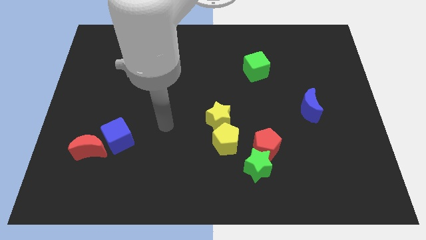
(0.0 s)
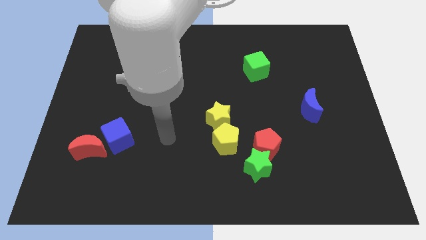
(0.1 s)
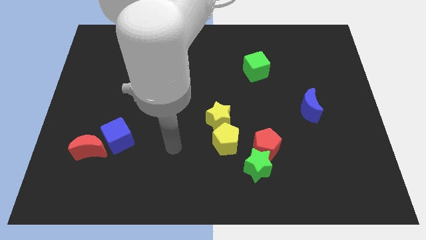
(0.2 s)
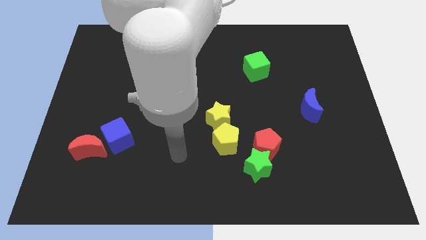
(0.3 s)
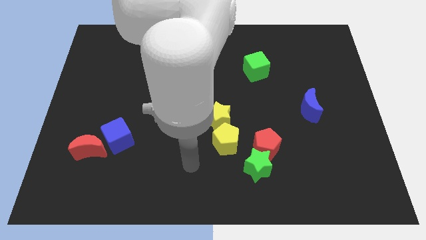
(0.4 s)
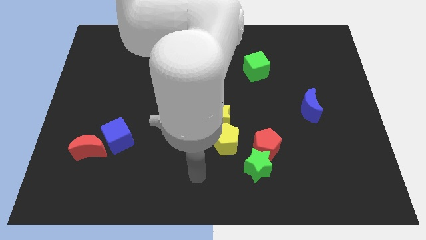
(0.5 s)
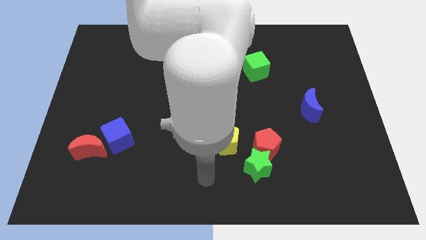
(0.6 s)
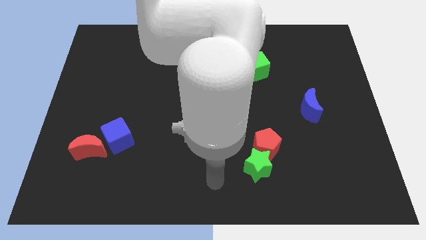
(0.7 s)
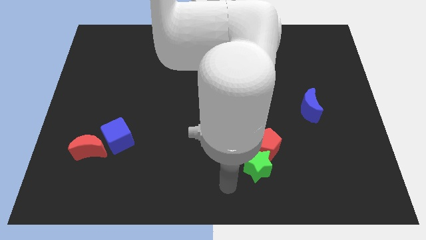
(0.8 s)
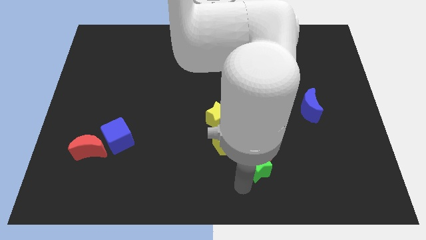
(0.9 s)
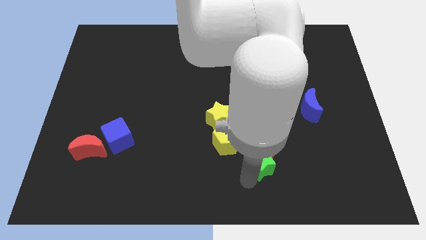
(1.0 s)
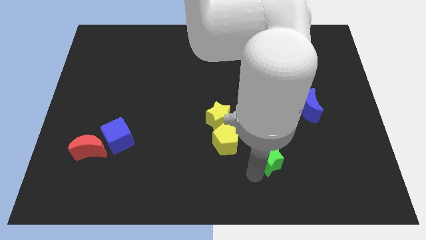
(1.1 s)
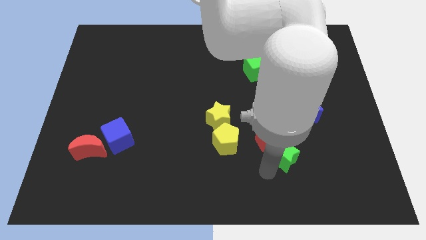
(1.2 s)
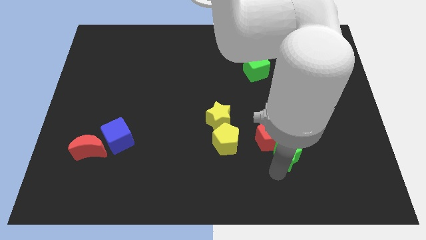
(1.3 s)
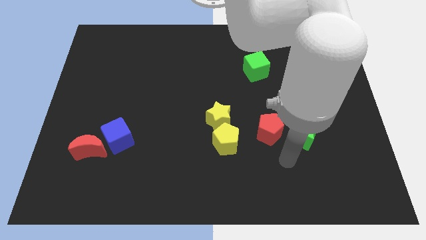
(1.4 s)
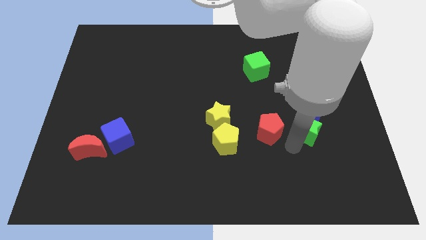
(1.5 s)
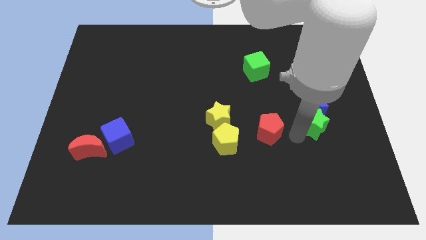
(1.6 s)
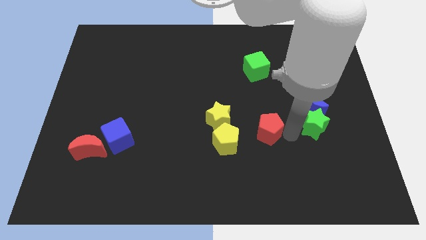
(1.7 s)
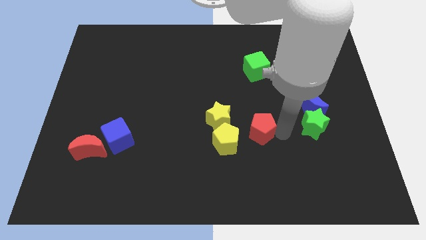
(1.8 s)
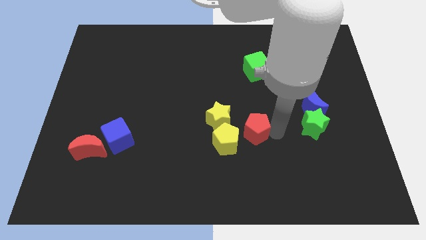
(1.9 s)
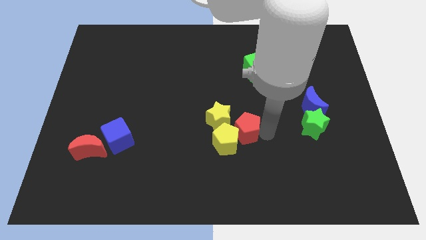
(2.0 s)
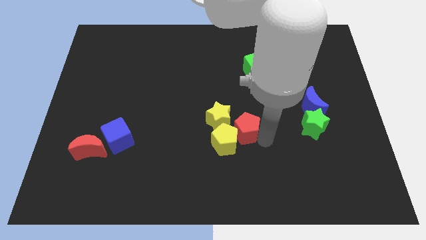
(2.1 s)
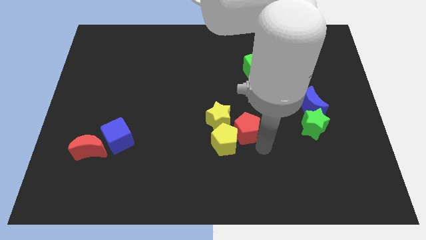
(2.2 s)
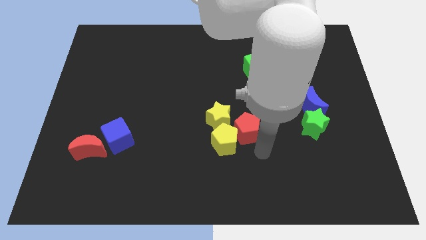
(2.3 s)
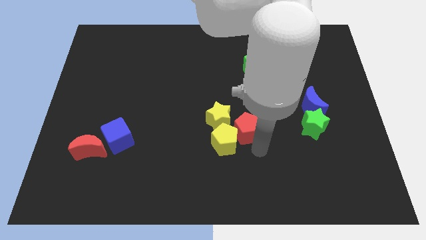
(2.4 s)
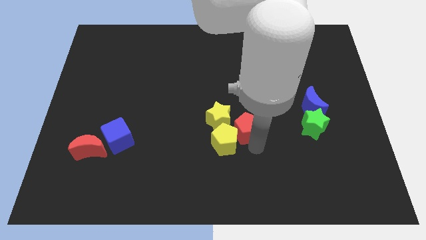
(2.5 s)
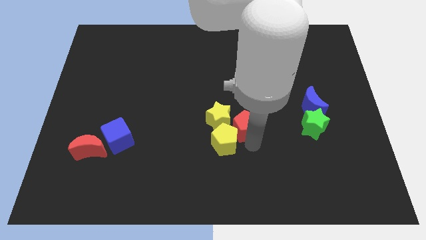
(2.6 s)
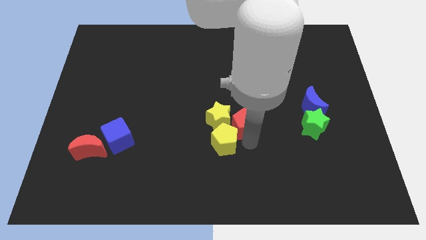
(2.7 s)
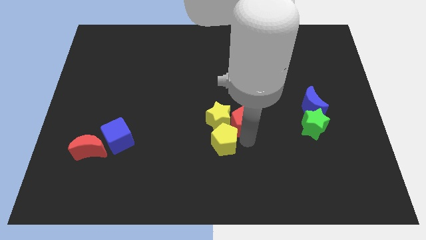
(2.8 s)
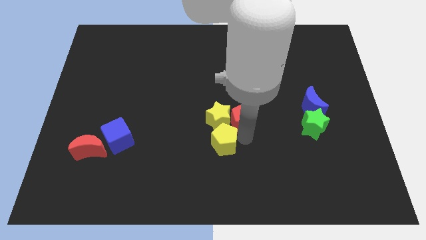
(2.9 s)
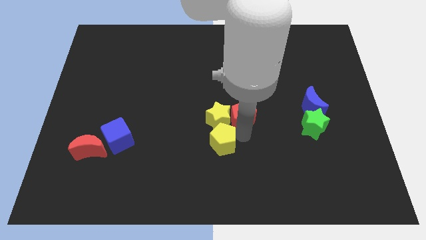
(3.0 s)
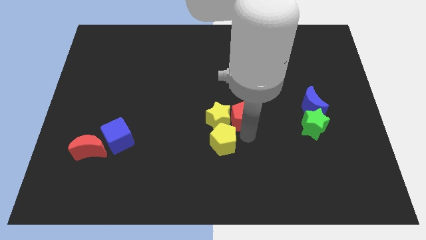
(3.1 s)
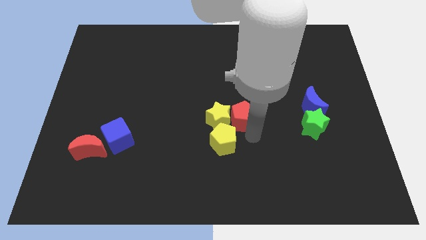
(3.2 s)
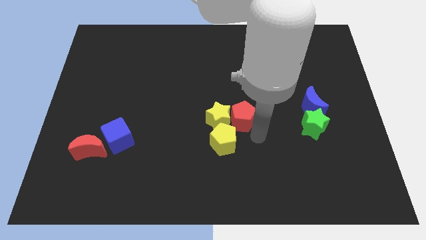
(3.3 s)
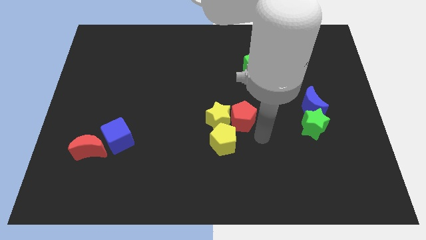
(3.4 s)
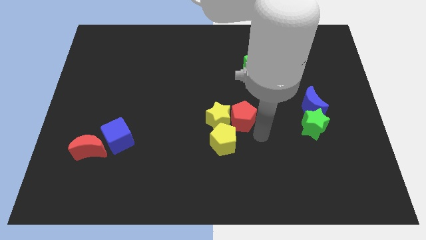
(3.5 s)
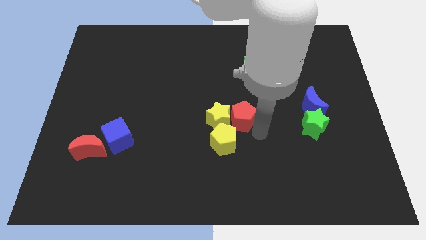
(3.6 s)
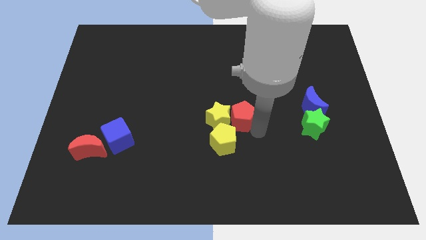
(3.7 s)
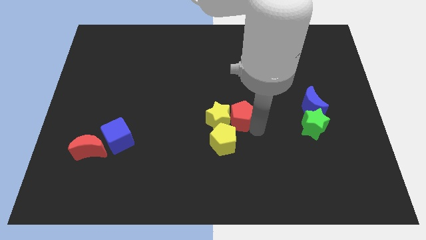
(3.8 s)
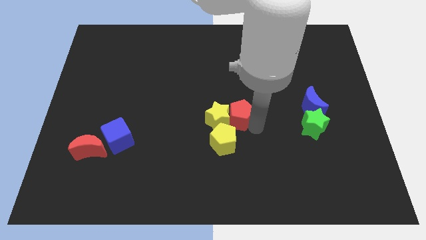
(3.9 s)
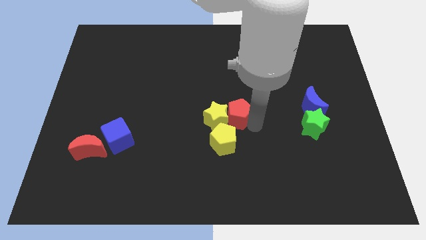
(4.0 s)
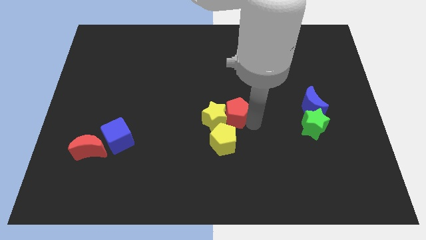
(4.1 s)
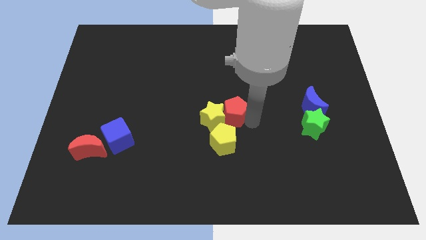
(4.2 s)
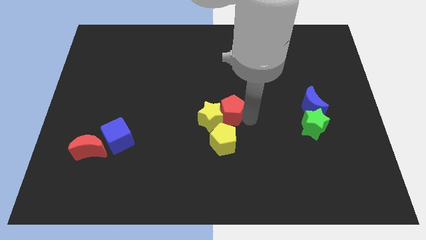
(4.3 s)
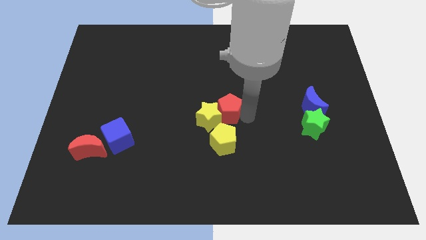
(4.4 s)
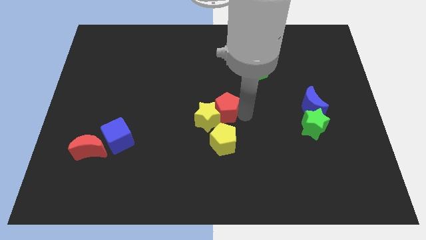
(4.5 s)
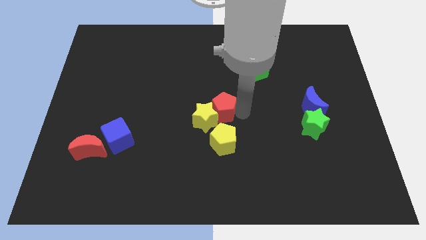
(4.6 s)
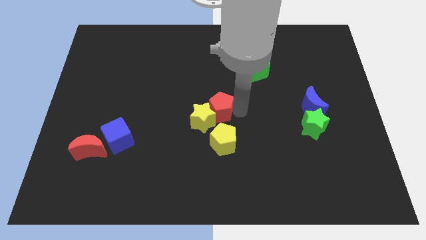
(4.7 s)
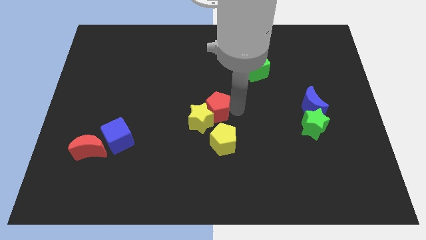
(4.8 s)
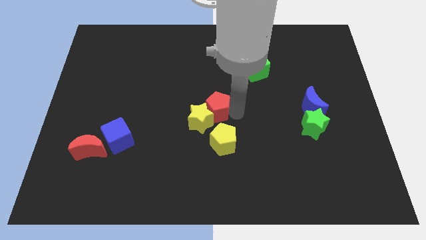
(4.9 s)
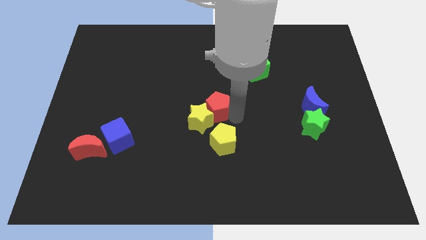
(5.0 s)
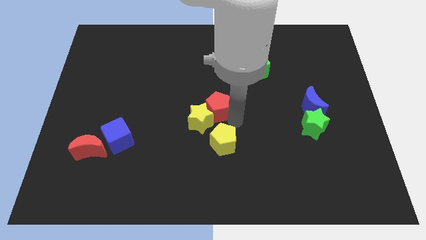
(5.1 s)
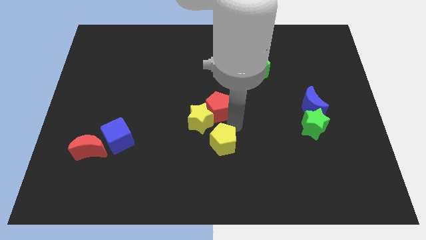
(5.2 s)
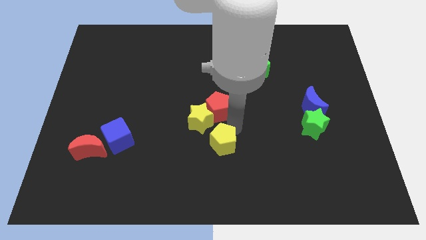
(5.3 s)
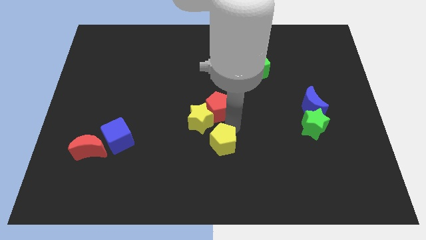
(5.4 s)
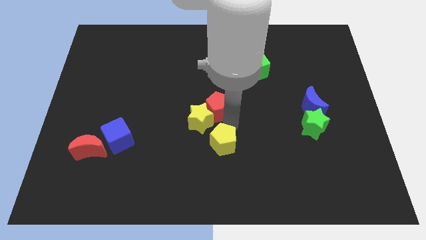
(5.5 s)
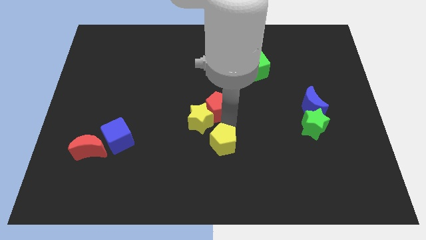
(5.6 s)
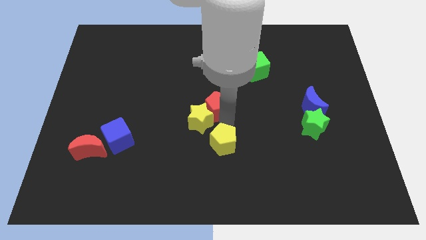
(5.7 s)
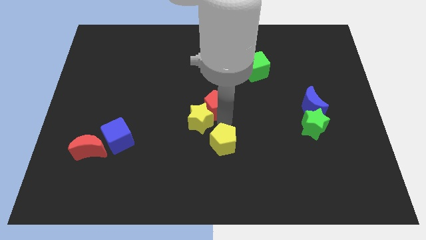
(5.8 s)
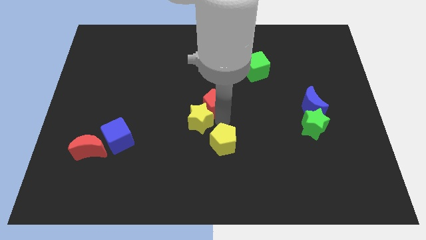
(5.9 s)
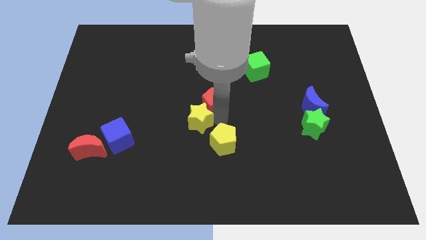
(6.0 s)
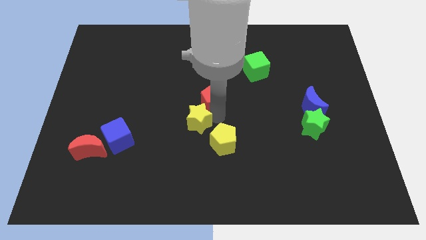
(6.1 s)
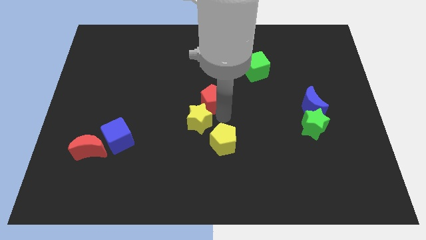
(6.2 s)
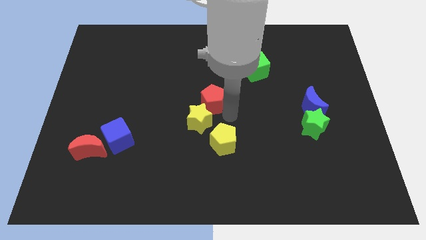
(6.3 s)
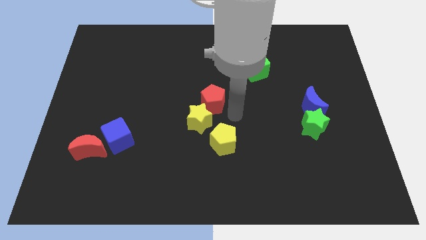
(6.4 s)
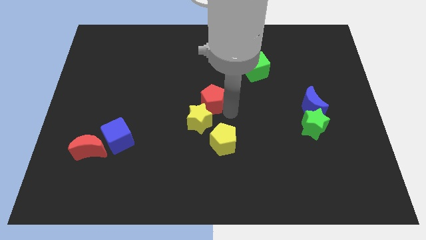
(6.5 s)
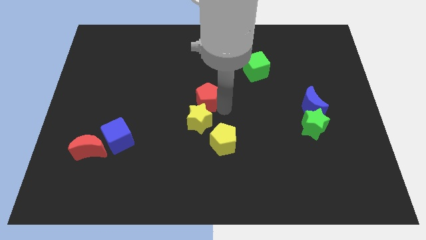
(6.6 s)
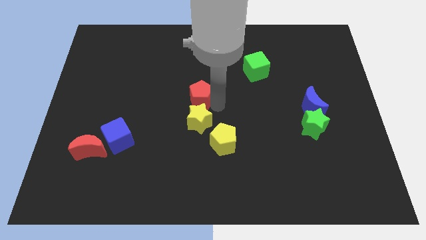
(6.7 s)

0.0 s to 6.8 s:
push the red pentagon upwards and then to the left

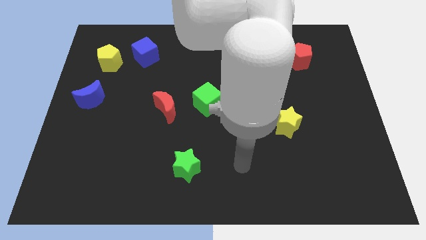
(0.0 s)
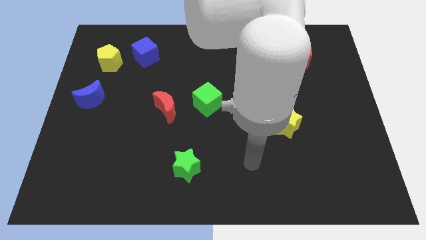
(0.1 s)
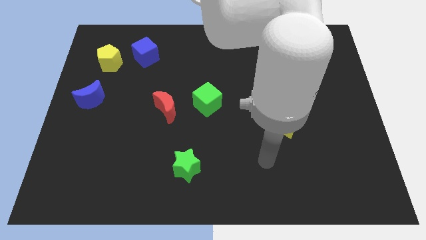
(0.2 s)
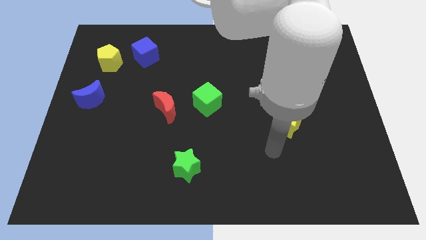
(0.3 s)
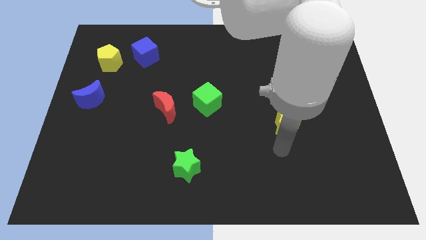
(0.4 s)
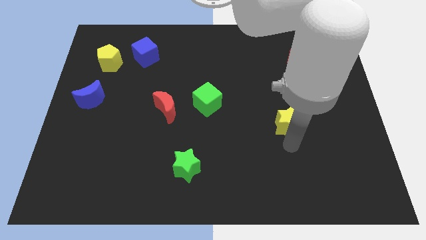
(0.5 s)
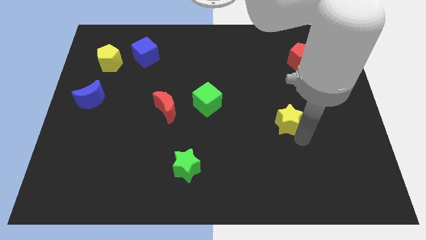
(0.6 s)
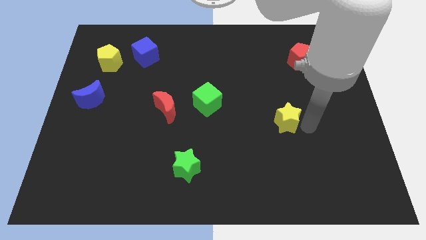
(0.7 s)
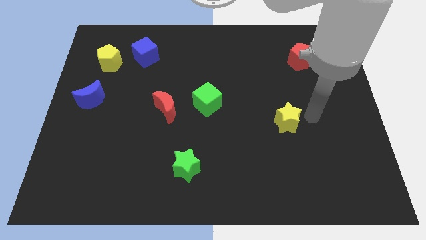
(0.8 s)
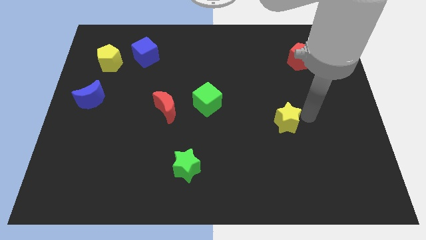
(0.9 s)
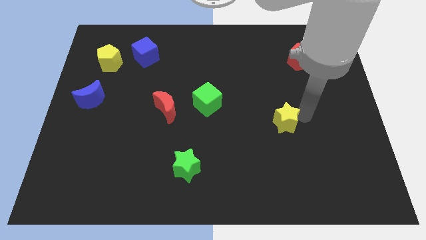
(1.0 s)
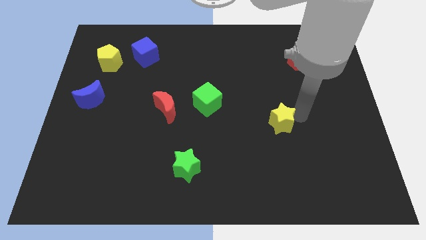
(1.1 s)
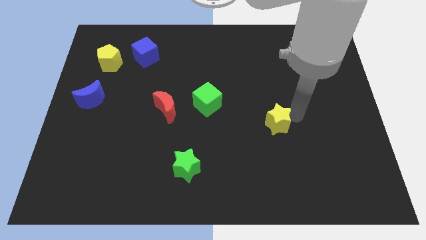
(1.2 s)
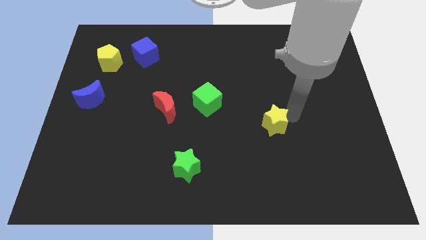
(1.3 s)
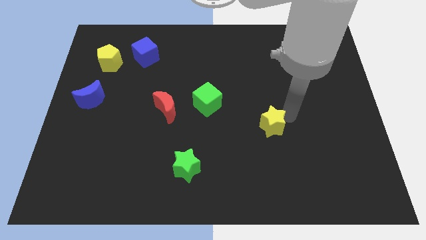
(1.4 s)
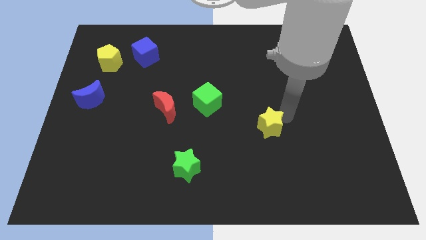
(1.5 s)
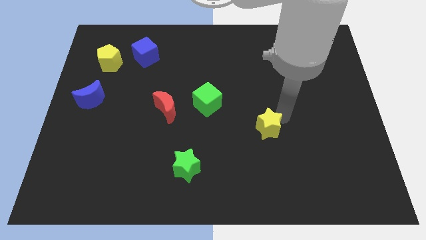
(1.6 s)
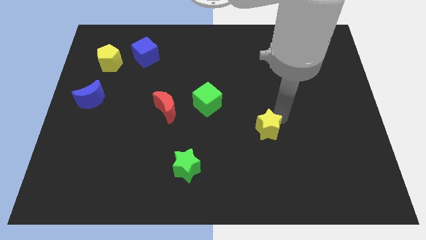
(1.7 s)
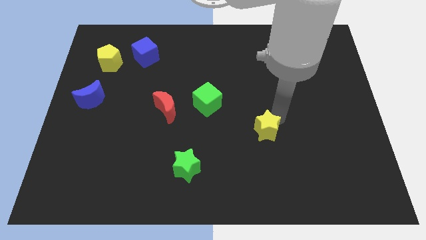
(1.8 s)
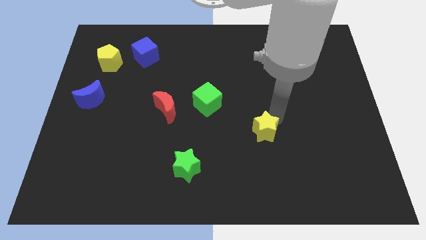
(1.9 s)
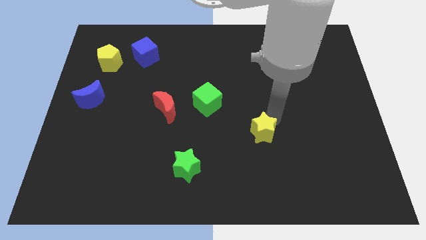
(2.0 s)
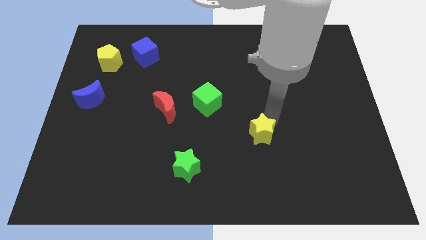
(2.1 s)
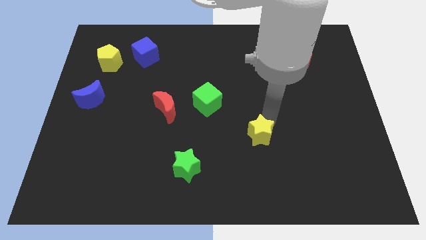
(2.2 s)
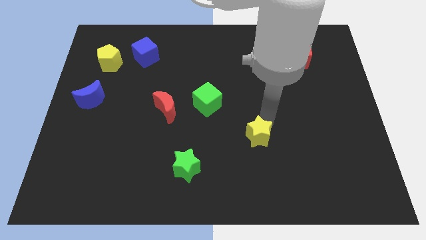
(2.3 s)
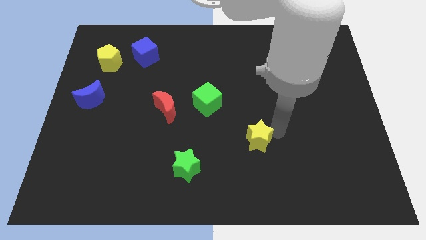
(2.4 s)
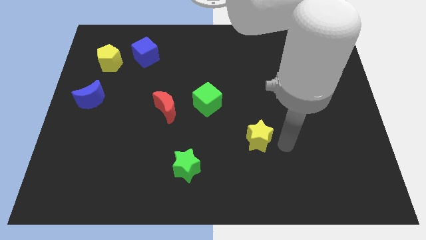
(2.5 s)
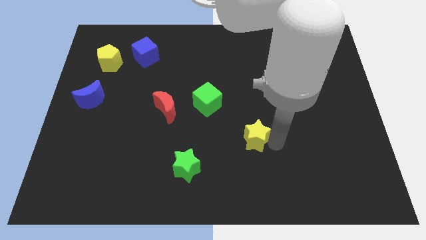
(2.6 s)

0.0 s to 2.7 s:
slide the yellow star somewhat left
